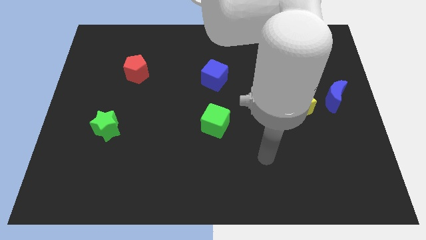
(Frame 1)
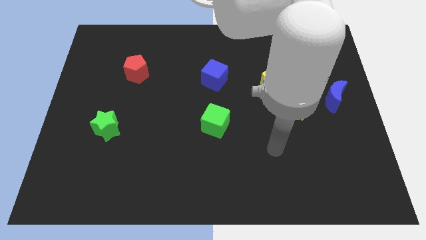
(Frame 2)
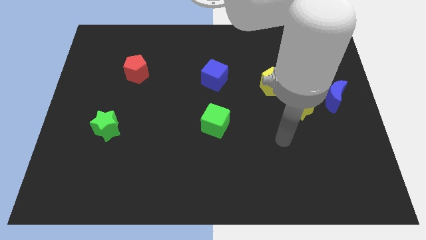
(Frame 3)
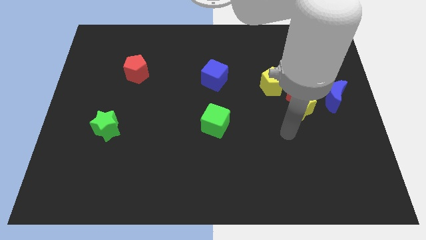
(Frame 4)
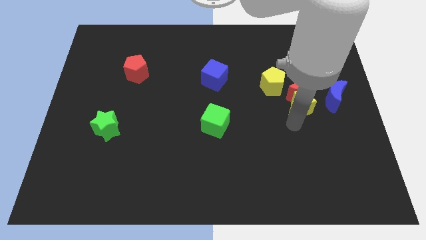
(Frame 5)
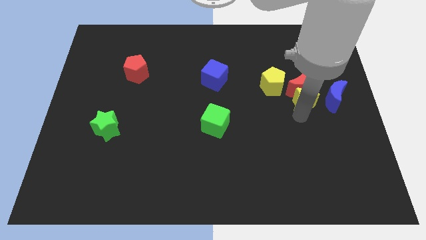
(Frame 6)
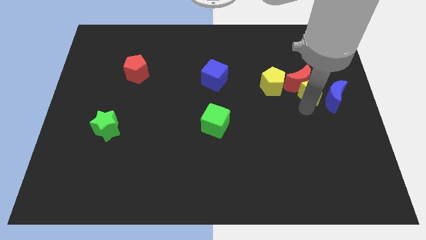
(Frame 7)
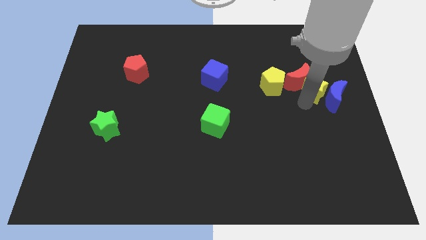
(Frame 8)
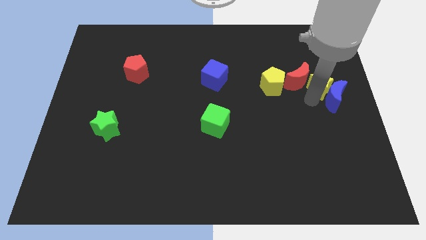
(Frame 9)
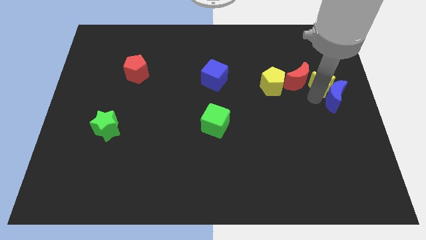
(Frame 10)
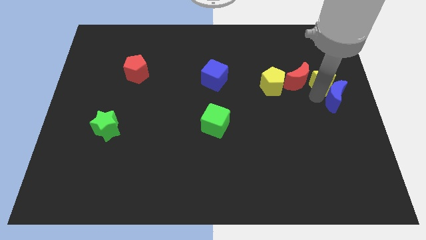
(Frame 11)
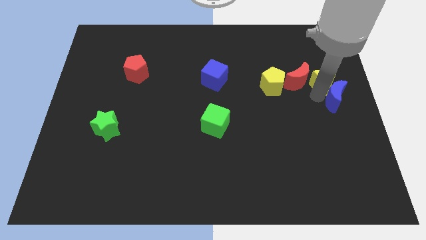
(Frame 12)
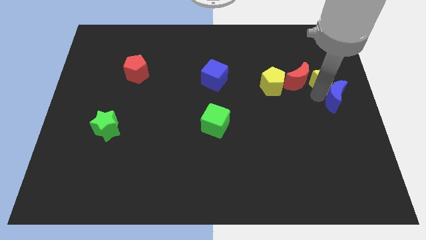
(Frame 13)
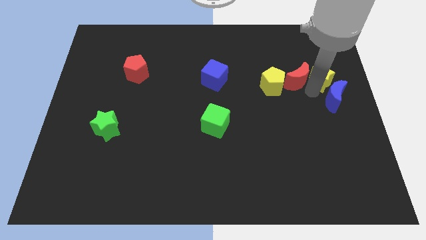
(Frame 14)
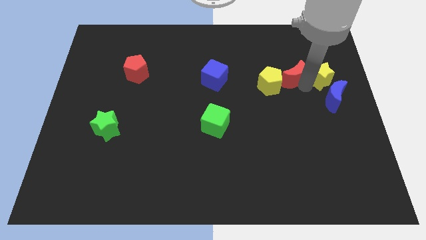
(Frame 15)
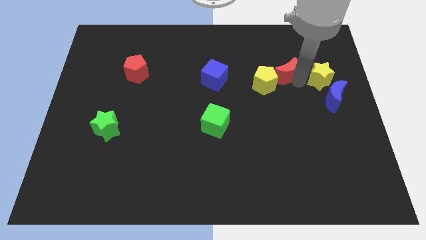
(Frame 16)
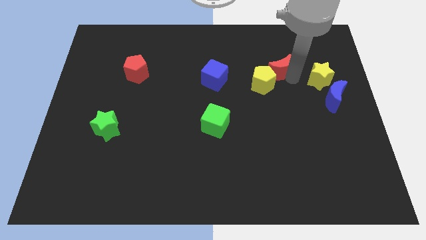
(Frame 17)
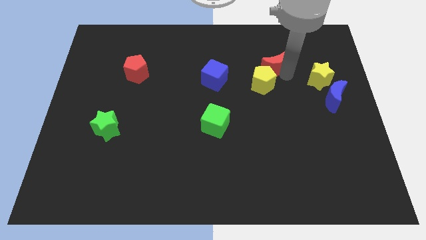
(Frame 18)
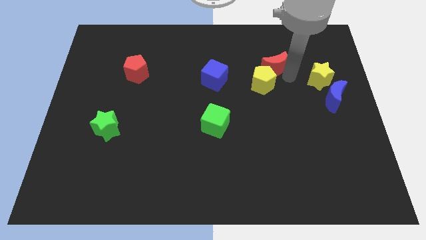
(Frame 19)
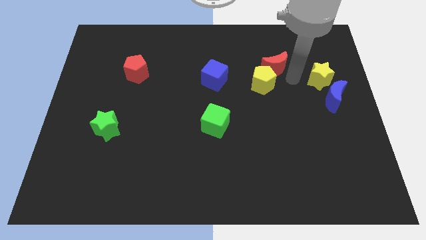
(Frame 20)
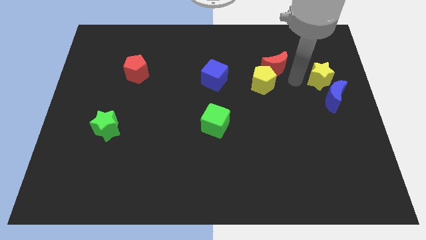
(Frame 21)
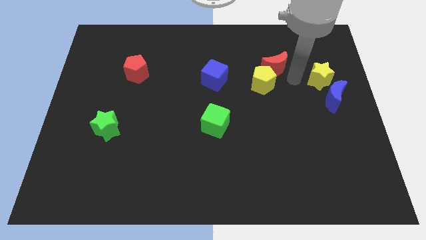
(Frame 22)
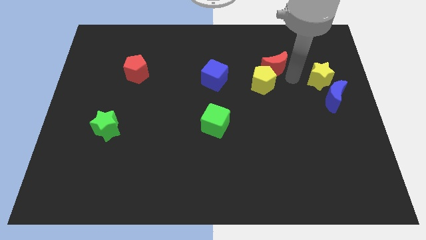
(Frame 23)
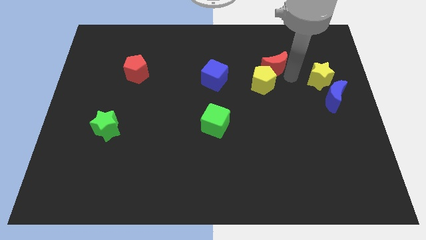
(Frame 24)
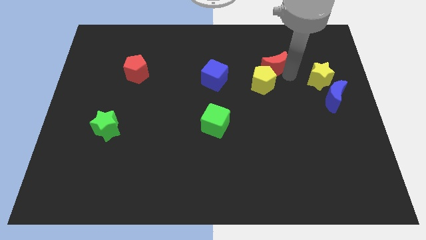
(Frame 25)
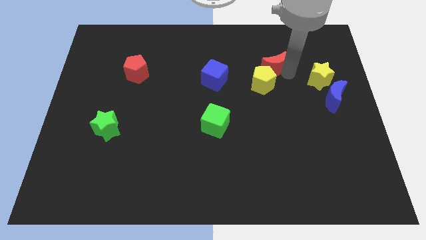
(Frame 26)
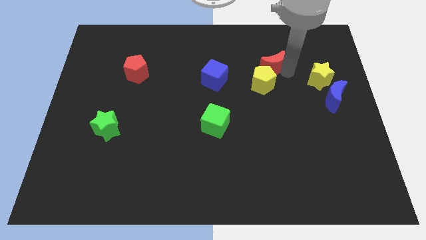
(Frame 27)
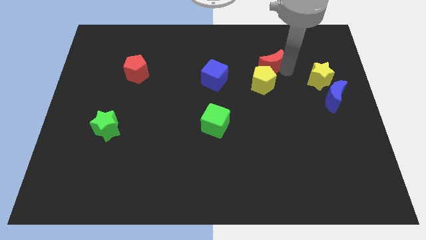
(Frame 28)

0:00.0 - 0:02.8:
separate the red moon from the clump

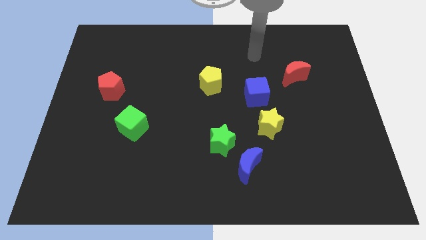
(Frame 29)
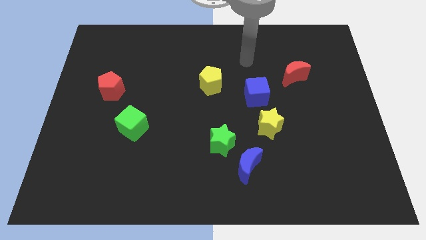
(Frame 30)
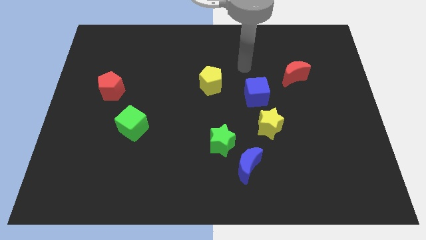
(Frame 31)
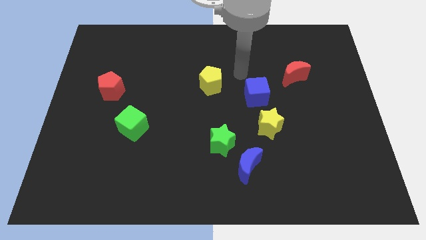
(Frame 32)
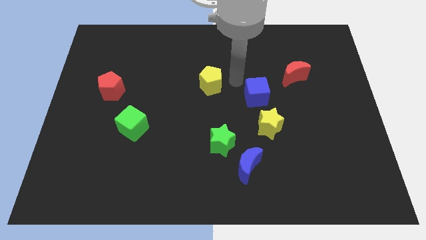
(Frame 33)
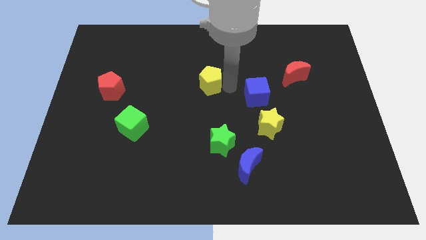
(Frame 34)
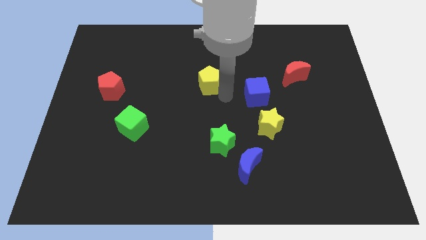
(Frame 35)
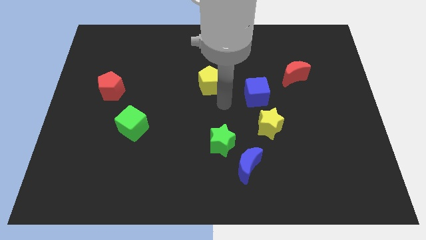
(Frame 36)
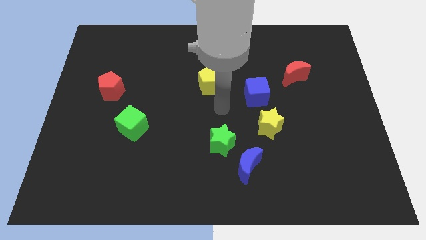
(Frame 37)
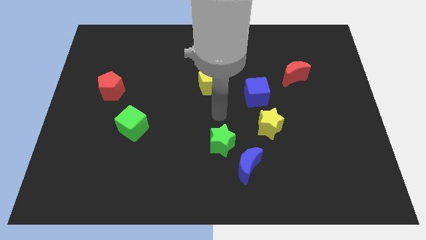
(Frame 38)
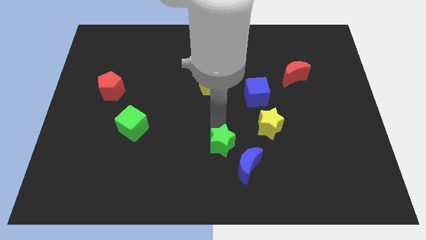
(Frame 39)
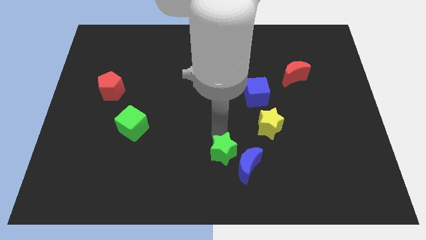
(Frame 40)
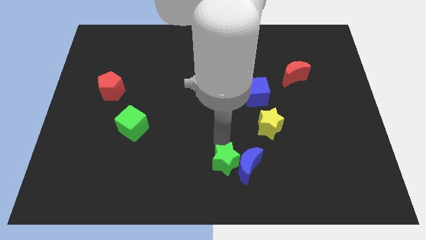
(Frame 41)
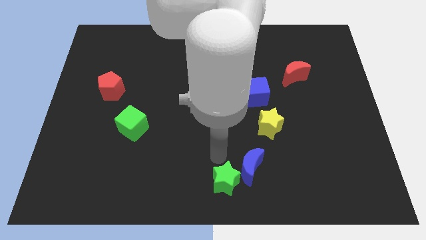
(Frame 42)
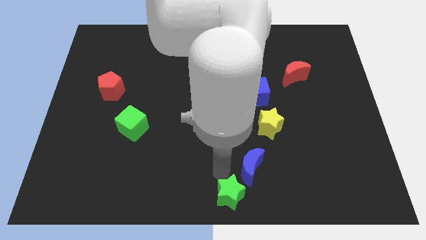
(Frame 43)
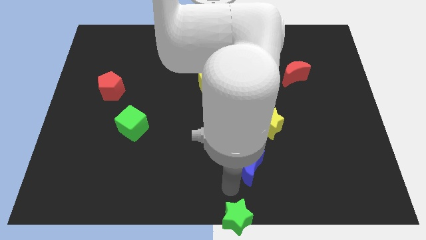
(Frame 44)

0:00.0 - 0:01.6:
separate the blue moon from the green star

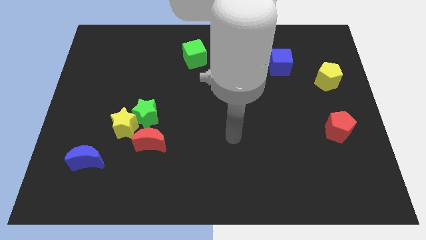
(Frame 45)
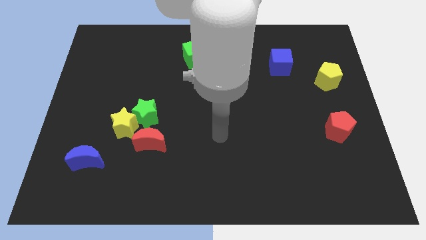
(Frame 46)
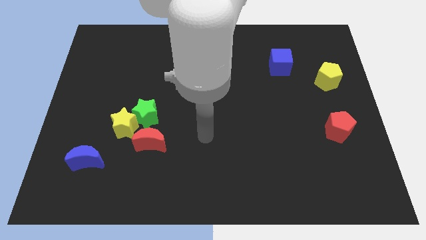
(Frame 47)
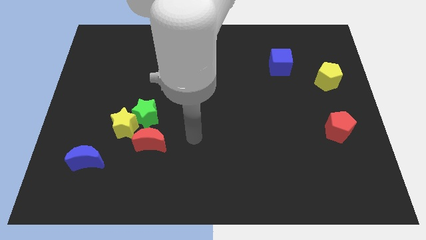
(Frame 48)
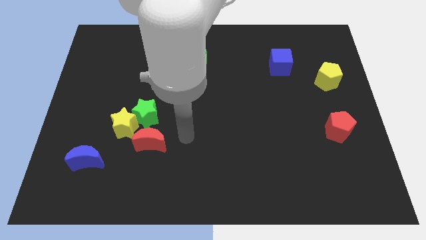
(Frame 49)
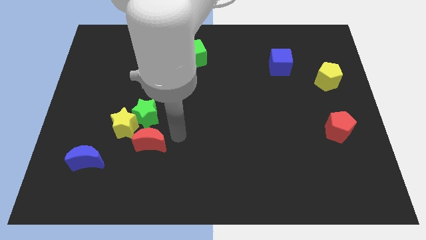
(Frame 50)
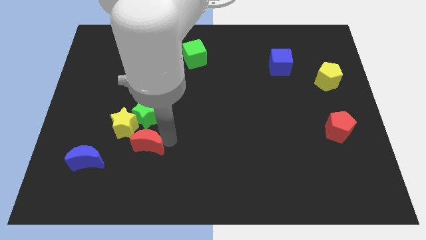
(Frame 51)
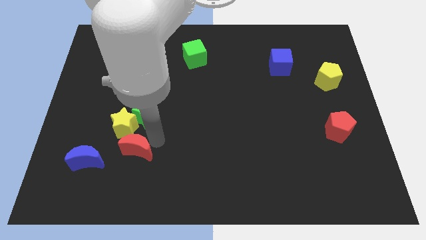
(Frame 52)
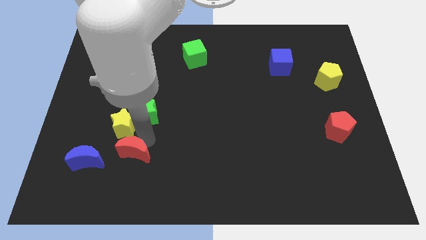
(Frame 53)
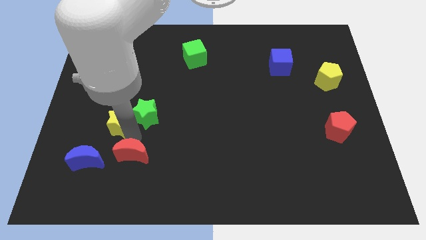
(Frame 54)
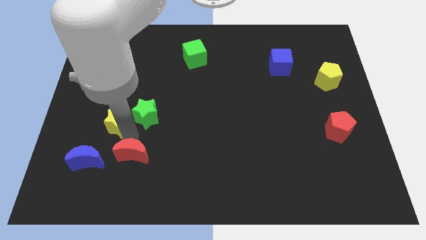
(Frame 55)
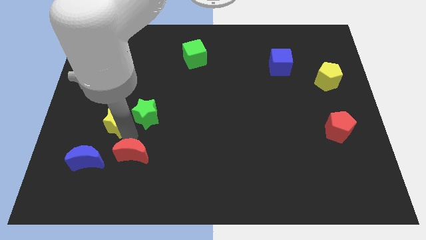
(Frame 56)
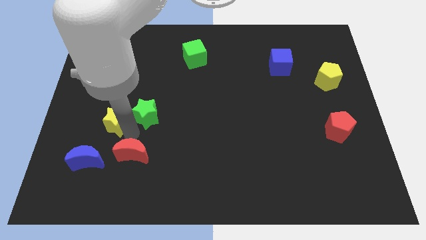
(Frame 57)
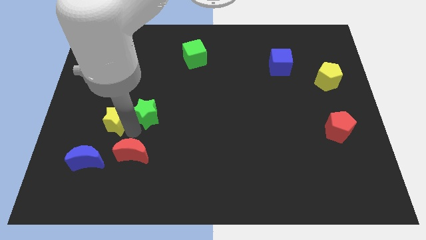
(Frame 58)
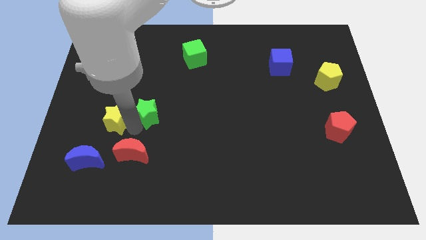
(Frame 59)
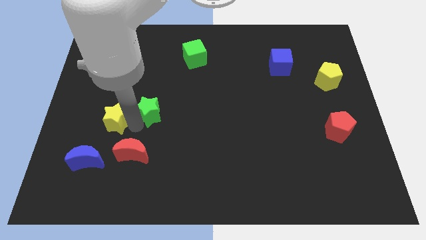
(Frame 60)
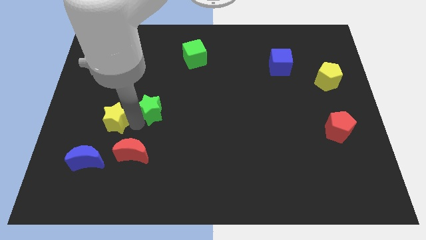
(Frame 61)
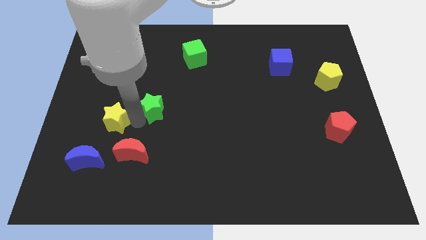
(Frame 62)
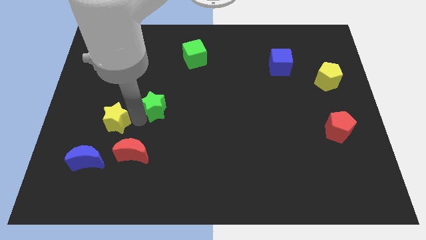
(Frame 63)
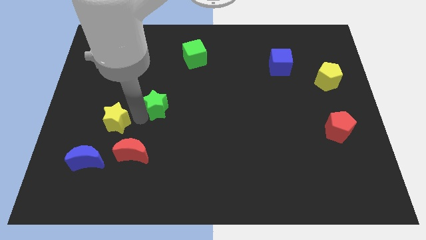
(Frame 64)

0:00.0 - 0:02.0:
separate the green star from the yellow star and red moon

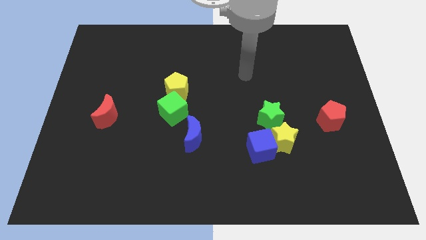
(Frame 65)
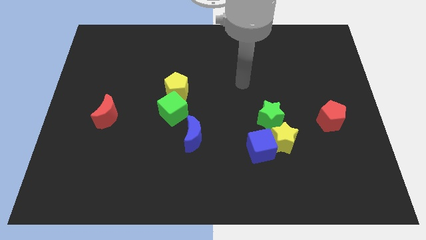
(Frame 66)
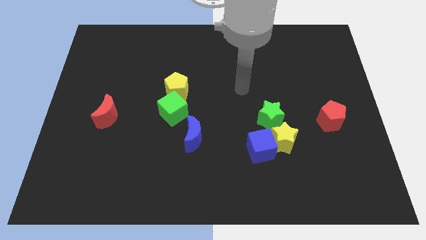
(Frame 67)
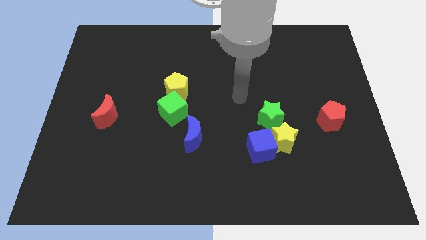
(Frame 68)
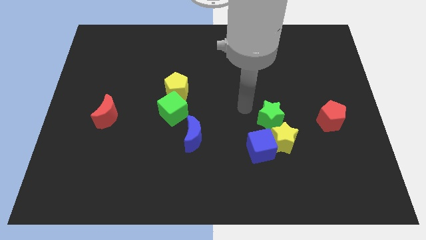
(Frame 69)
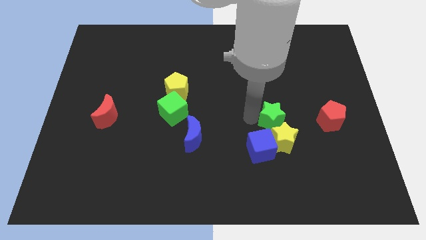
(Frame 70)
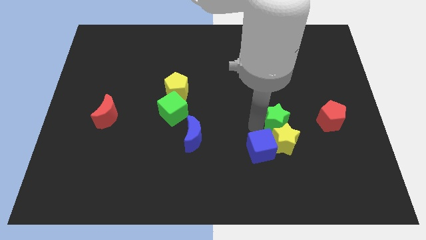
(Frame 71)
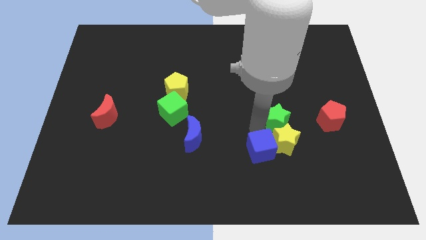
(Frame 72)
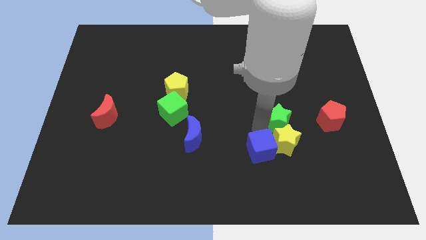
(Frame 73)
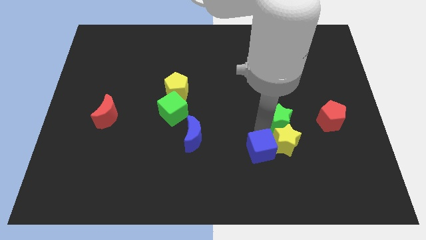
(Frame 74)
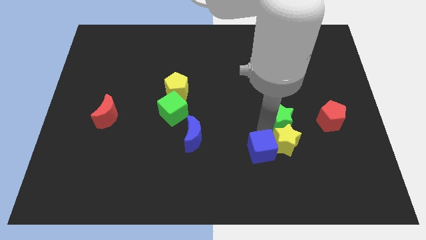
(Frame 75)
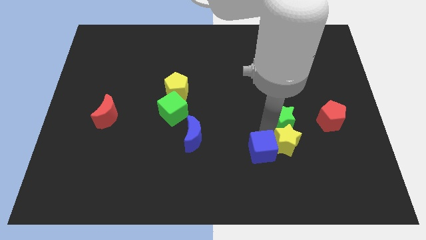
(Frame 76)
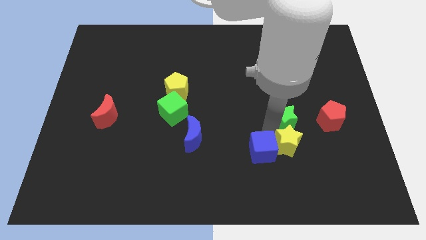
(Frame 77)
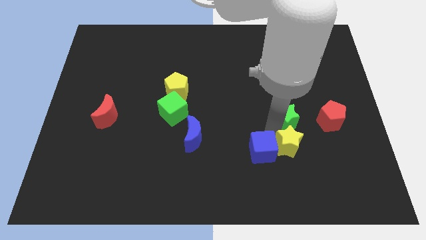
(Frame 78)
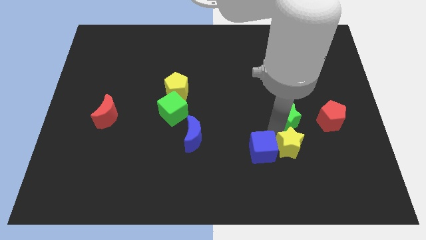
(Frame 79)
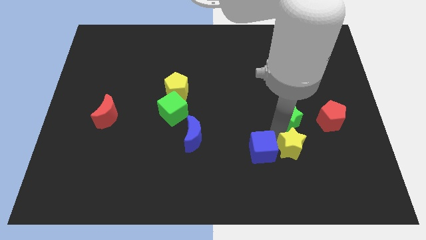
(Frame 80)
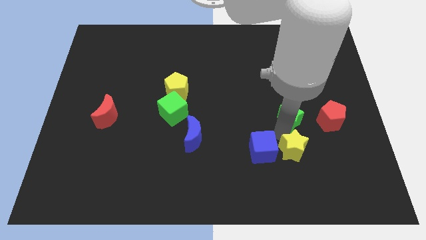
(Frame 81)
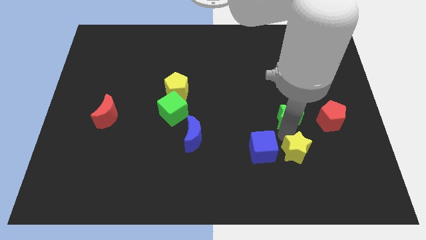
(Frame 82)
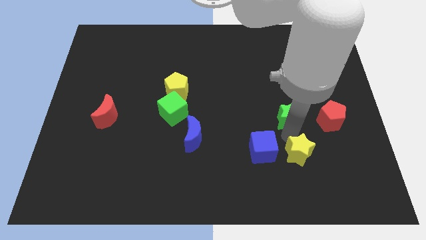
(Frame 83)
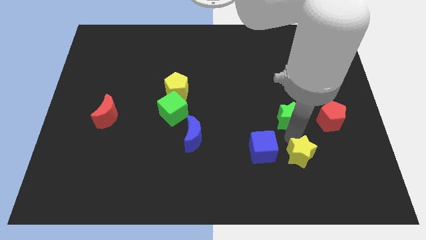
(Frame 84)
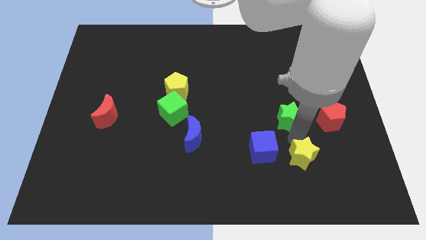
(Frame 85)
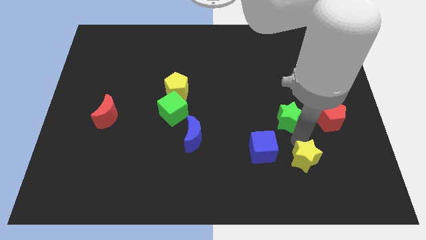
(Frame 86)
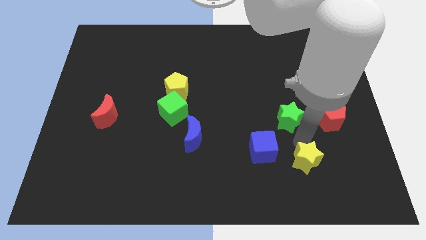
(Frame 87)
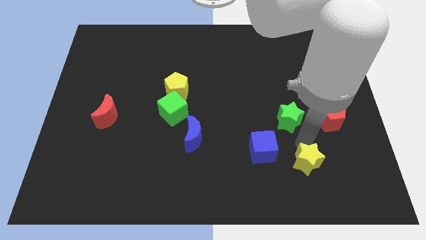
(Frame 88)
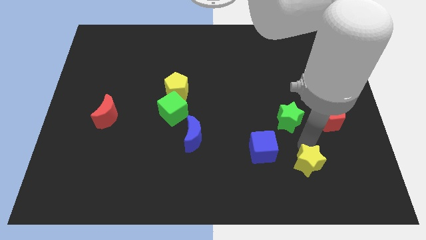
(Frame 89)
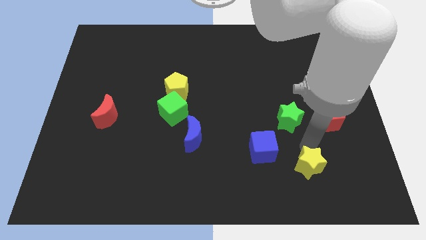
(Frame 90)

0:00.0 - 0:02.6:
move the yellow star away from the blue cube and green star
